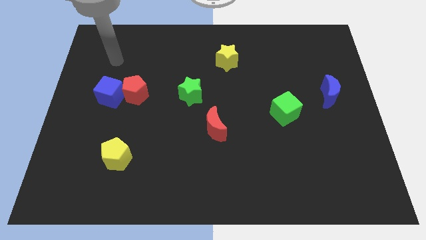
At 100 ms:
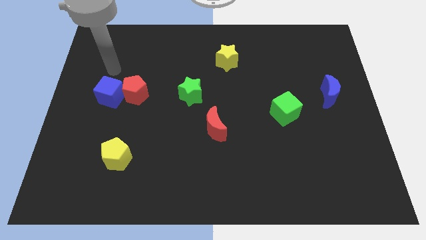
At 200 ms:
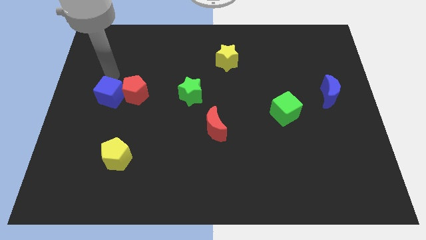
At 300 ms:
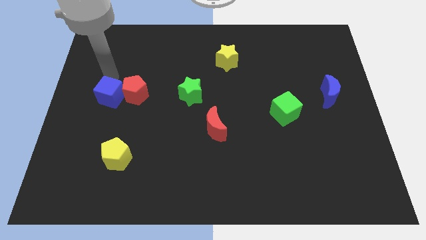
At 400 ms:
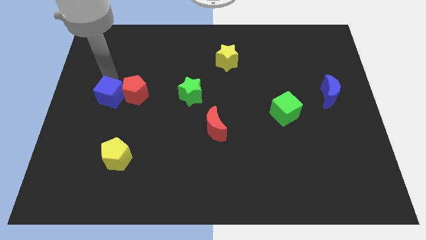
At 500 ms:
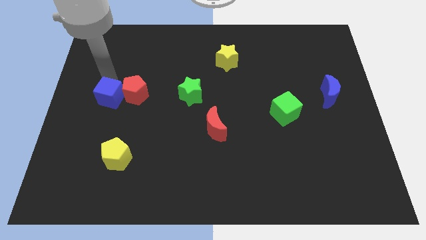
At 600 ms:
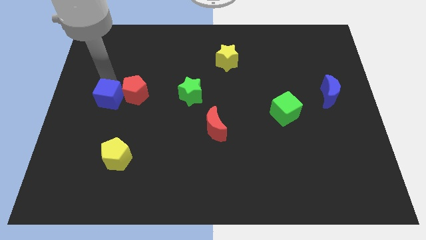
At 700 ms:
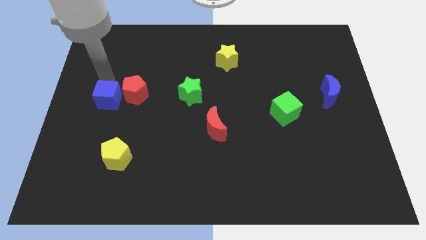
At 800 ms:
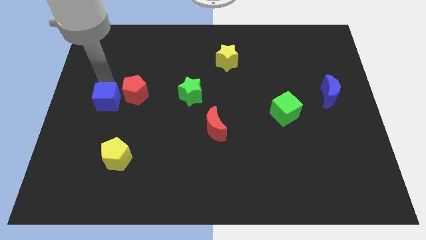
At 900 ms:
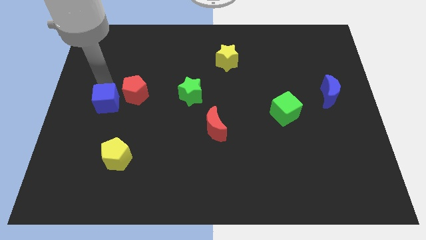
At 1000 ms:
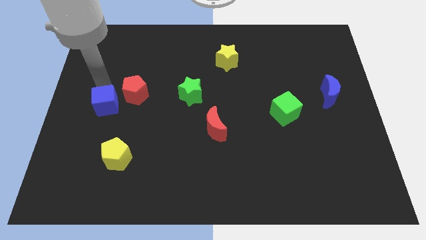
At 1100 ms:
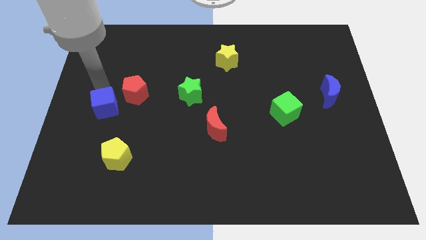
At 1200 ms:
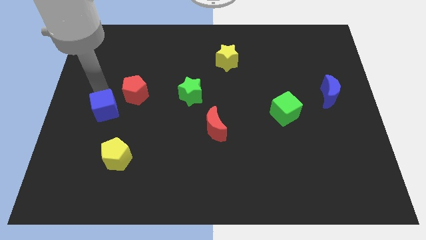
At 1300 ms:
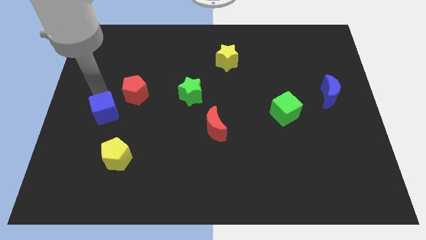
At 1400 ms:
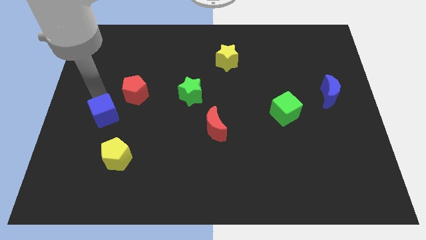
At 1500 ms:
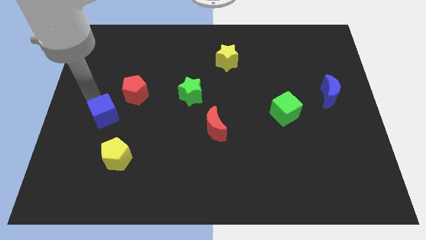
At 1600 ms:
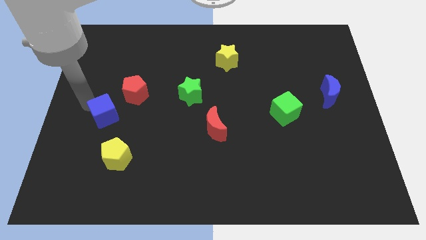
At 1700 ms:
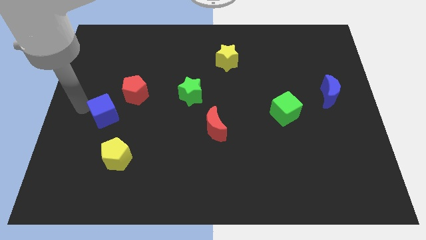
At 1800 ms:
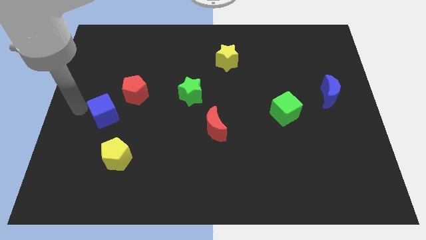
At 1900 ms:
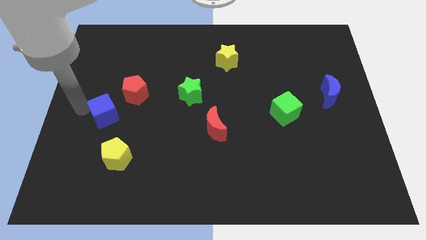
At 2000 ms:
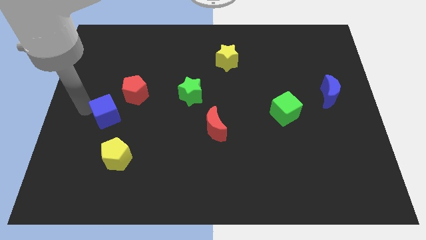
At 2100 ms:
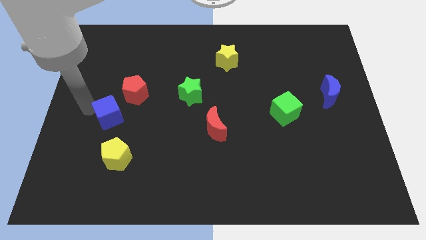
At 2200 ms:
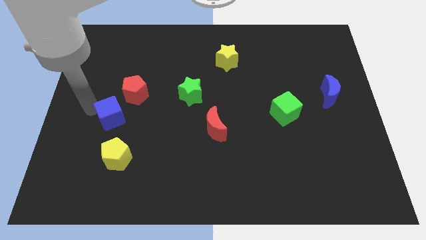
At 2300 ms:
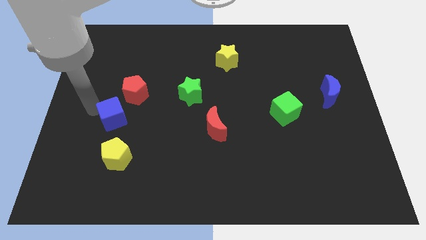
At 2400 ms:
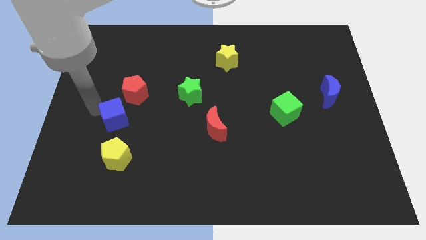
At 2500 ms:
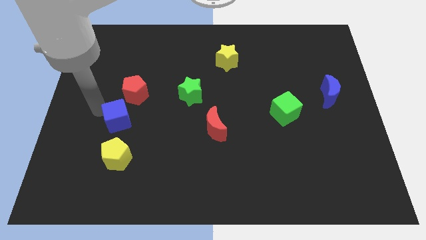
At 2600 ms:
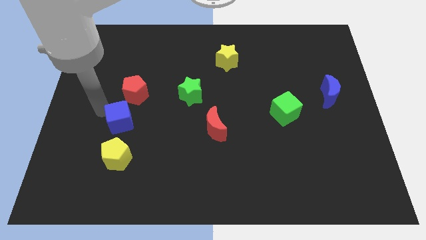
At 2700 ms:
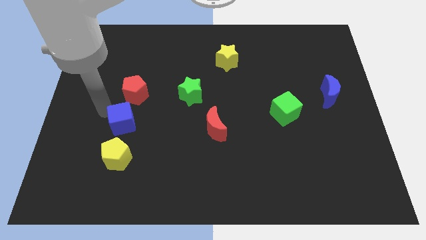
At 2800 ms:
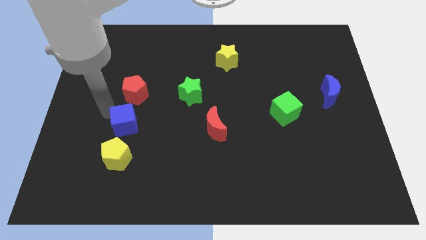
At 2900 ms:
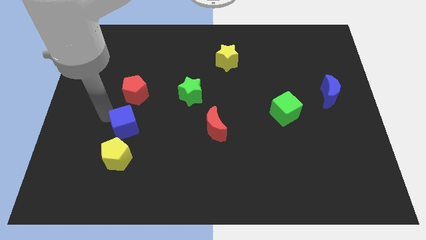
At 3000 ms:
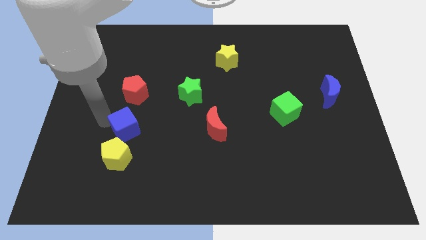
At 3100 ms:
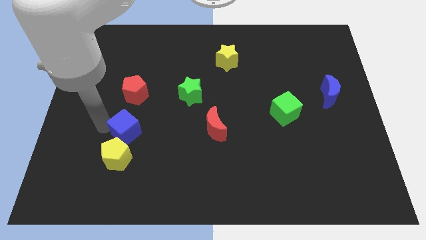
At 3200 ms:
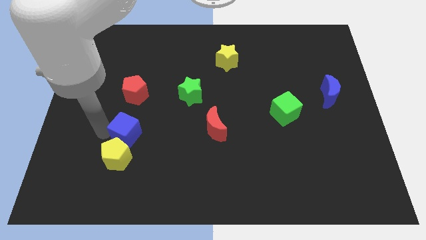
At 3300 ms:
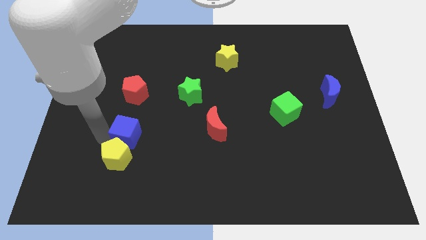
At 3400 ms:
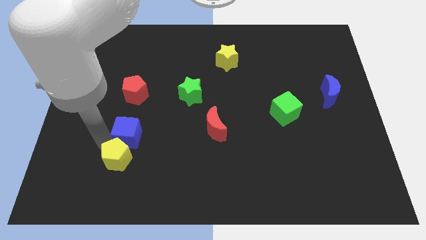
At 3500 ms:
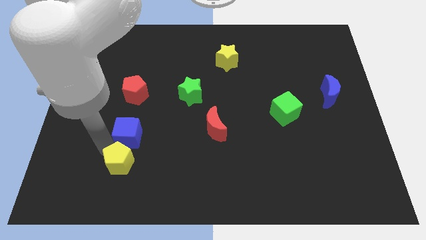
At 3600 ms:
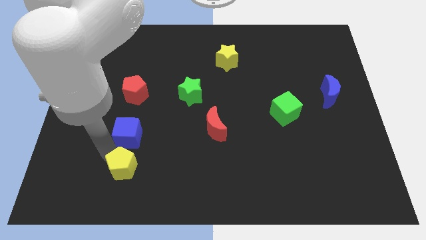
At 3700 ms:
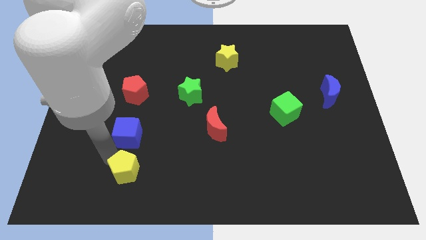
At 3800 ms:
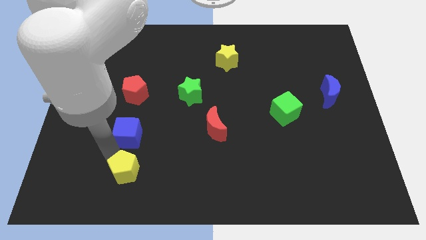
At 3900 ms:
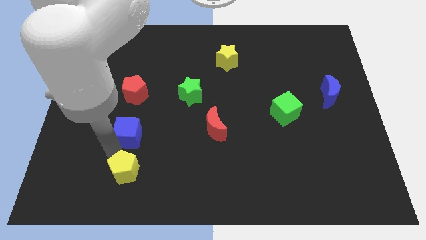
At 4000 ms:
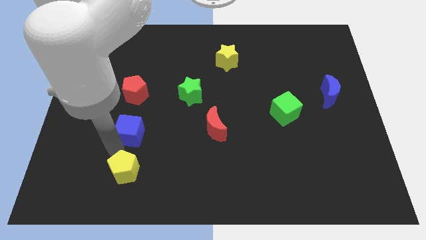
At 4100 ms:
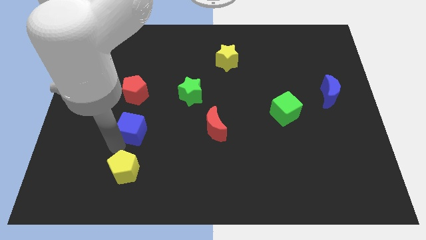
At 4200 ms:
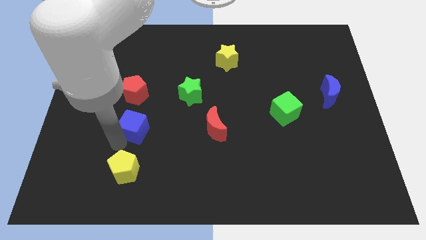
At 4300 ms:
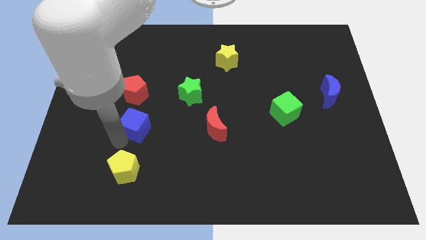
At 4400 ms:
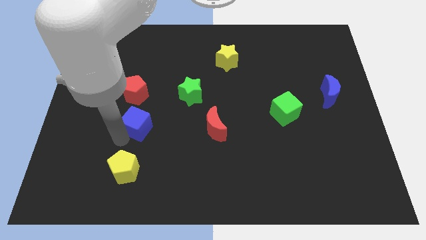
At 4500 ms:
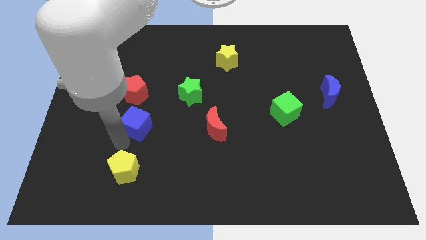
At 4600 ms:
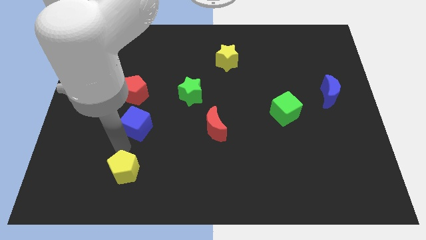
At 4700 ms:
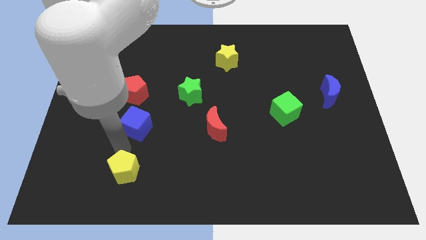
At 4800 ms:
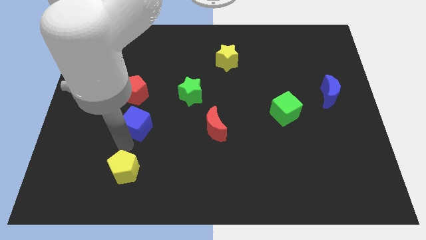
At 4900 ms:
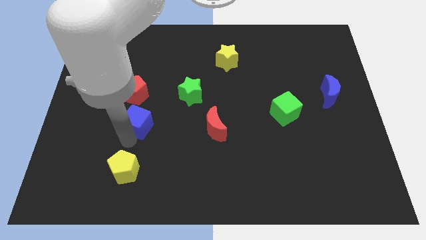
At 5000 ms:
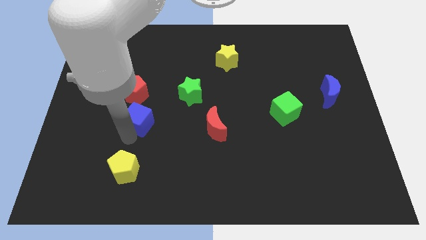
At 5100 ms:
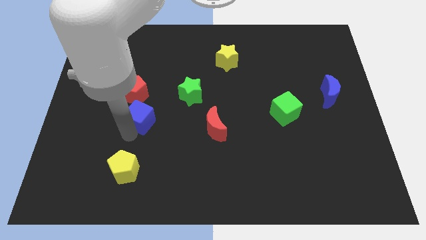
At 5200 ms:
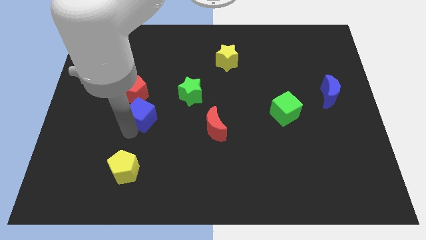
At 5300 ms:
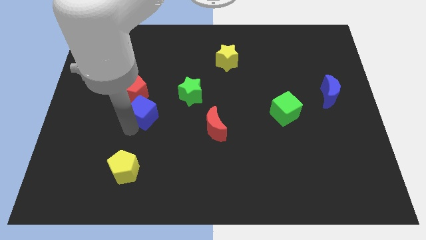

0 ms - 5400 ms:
put the blue cube to the bottom left side of the green star

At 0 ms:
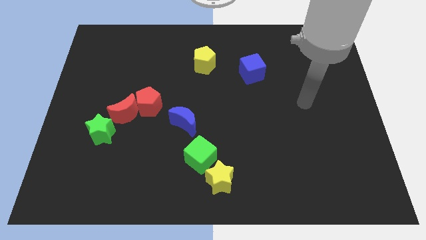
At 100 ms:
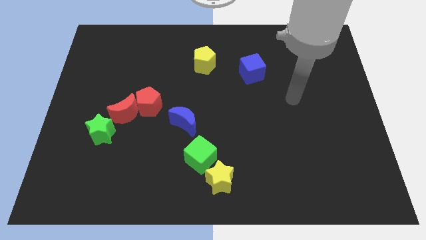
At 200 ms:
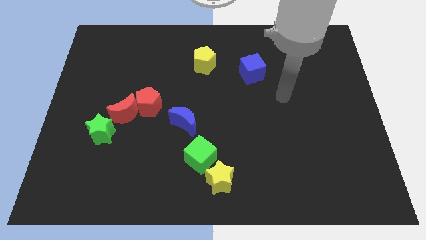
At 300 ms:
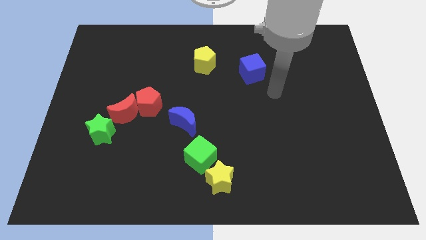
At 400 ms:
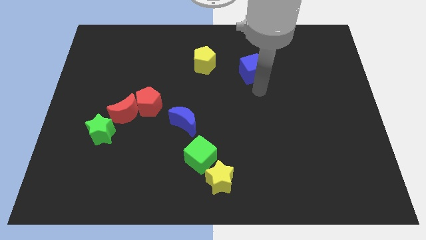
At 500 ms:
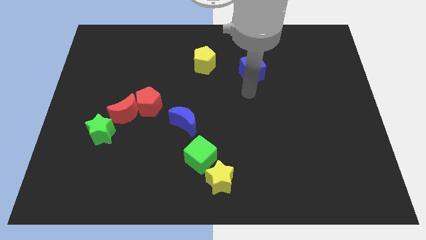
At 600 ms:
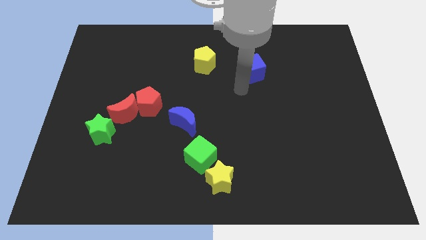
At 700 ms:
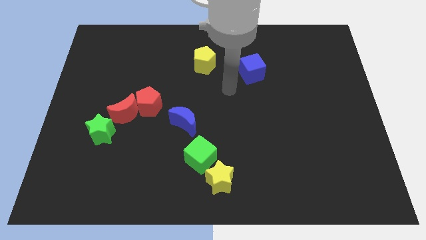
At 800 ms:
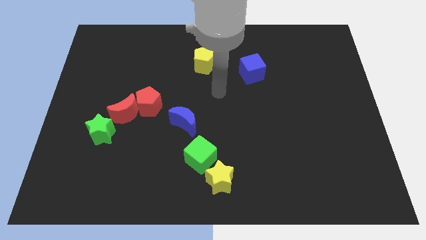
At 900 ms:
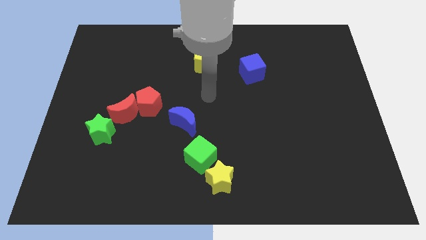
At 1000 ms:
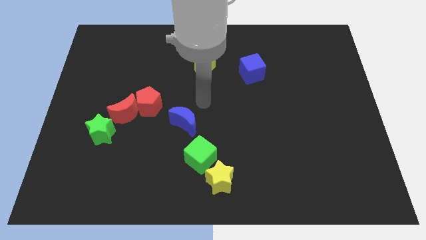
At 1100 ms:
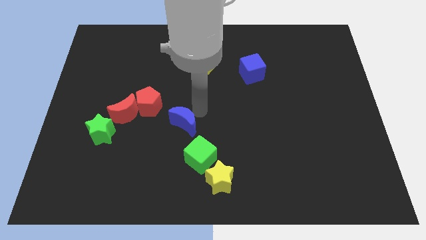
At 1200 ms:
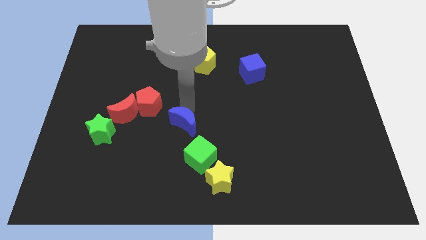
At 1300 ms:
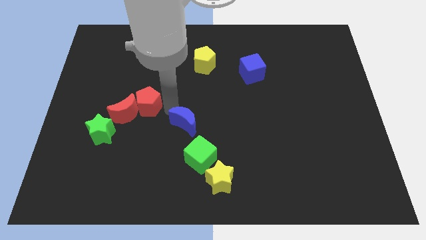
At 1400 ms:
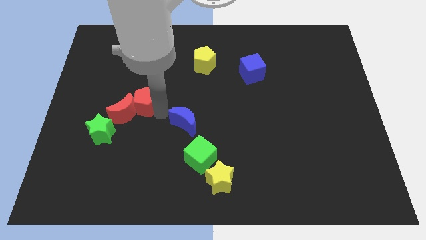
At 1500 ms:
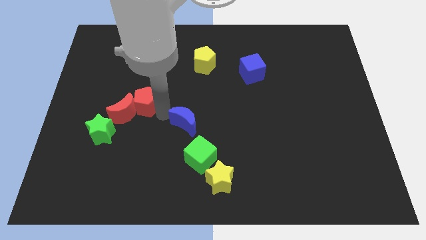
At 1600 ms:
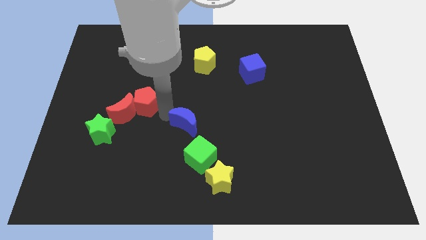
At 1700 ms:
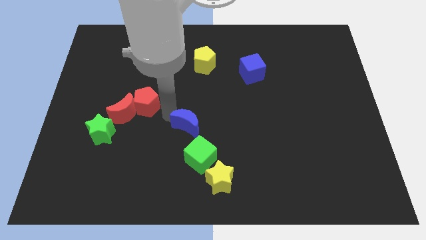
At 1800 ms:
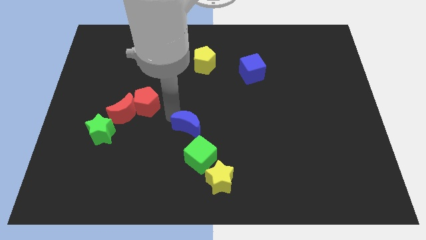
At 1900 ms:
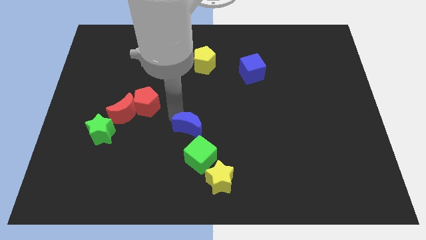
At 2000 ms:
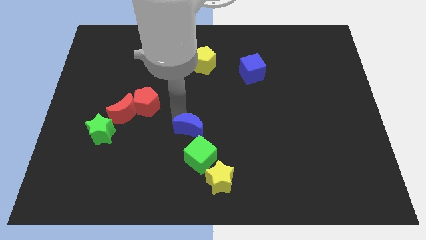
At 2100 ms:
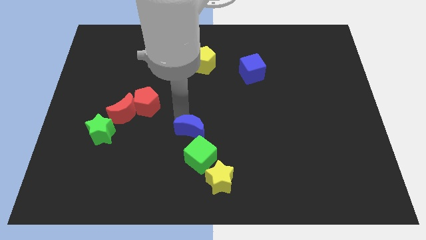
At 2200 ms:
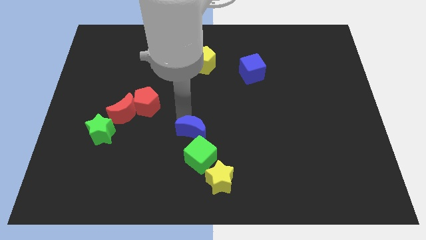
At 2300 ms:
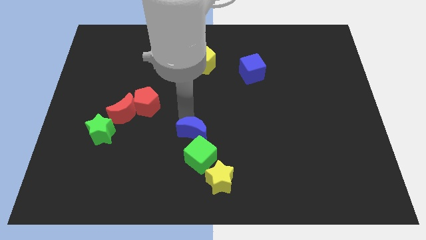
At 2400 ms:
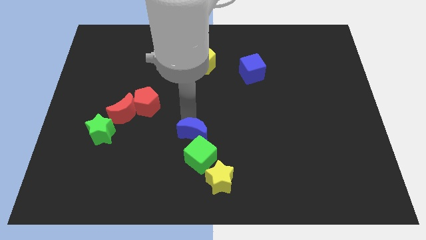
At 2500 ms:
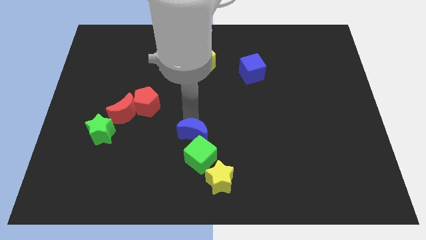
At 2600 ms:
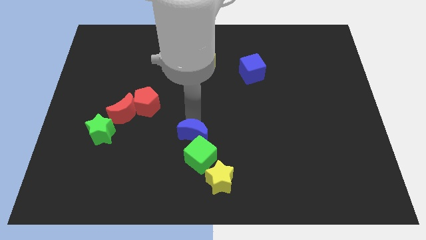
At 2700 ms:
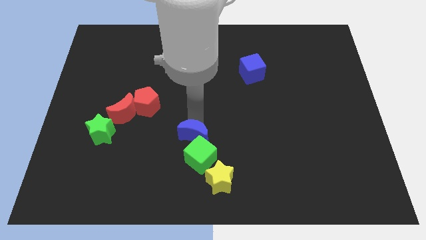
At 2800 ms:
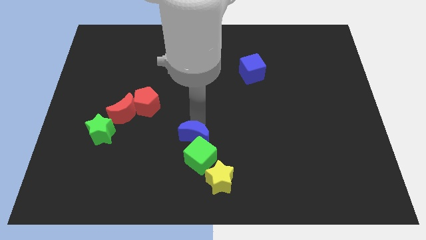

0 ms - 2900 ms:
move the blue moon diagonally up and to the right of the green cube
